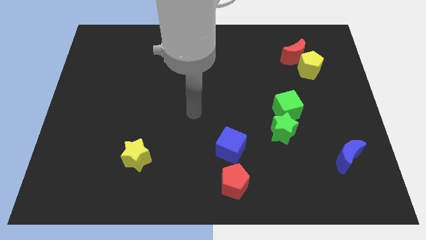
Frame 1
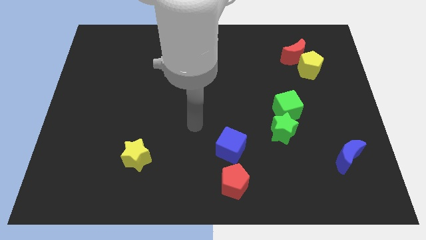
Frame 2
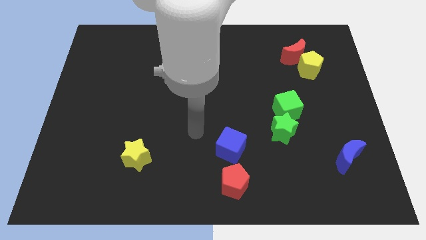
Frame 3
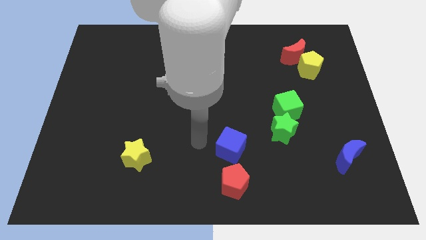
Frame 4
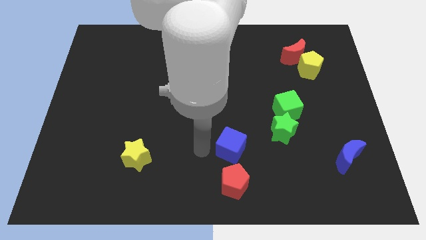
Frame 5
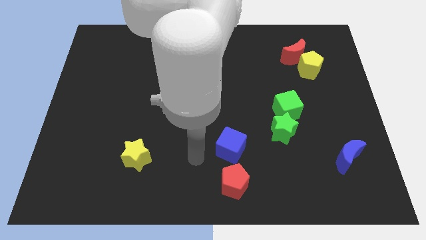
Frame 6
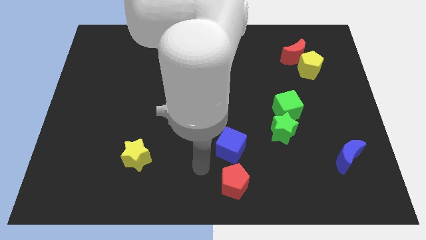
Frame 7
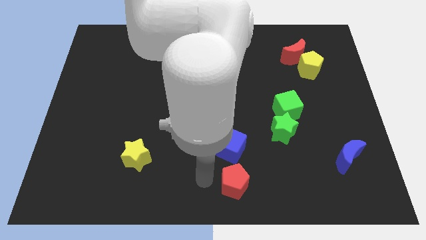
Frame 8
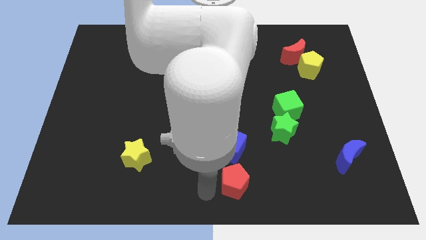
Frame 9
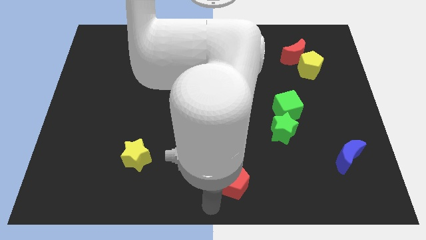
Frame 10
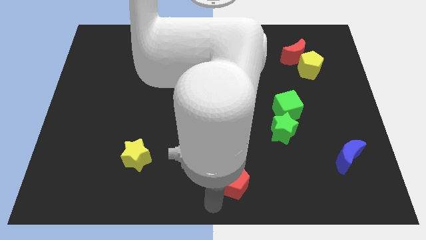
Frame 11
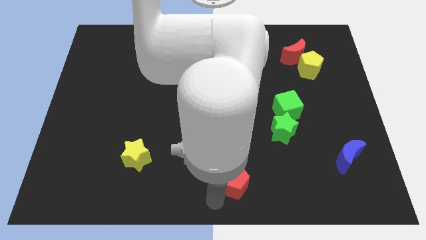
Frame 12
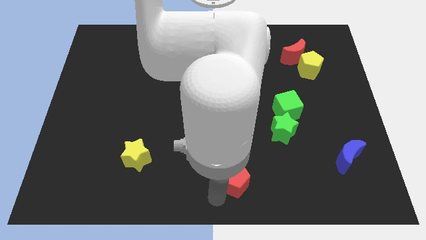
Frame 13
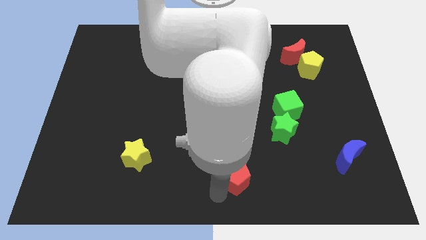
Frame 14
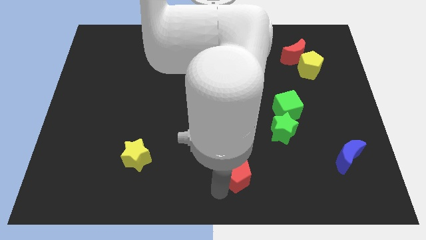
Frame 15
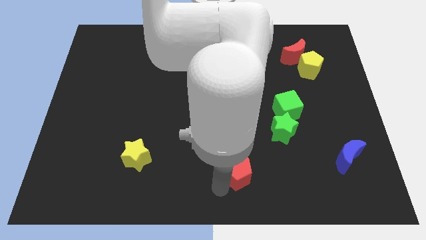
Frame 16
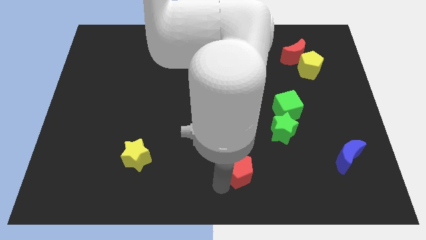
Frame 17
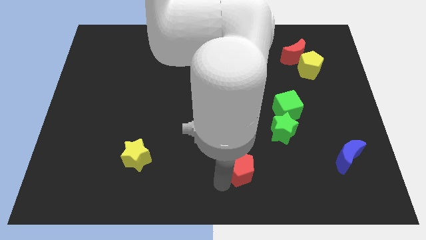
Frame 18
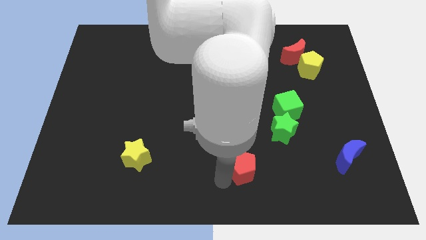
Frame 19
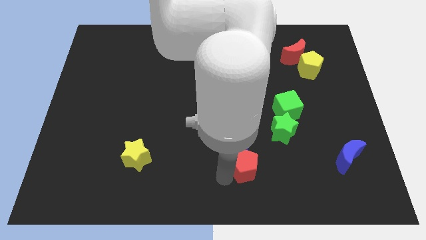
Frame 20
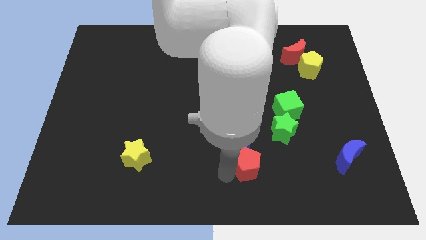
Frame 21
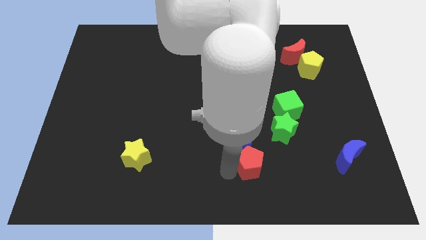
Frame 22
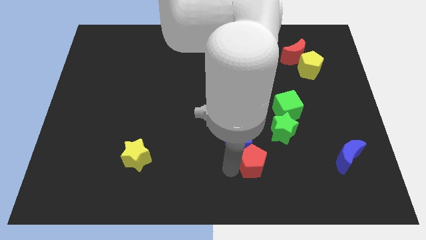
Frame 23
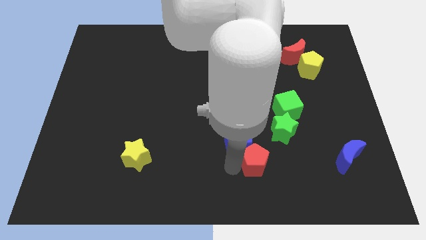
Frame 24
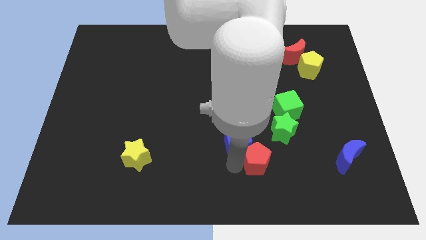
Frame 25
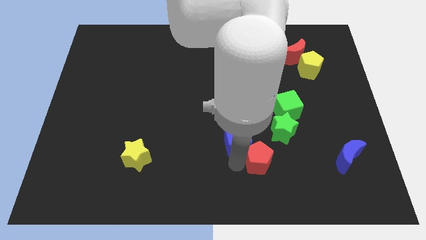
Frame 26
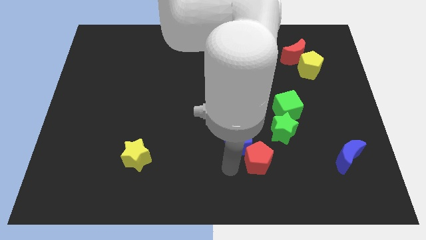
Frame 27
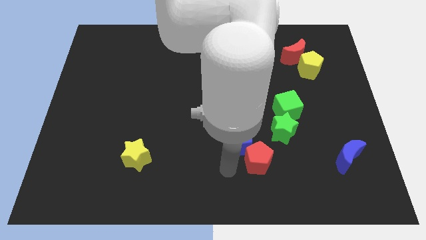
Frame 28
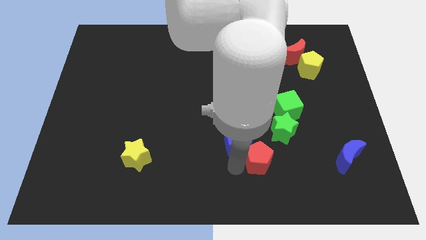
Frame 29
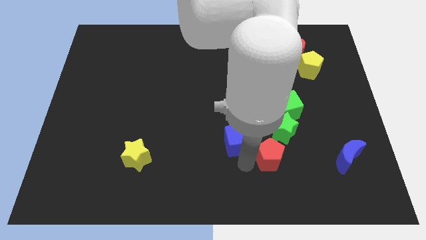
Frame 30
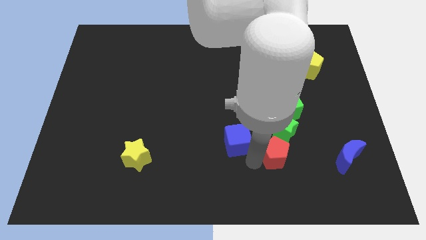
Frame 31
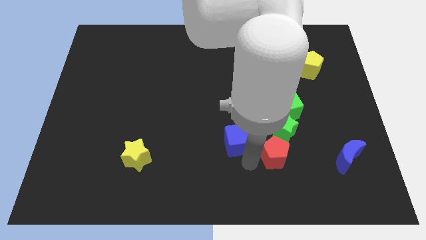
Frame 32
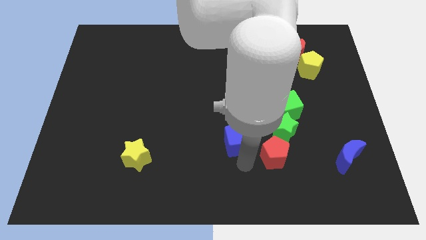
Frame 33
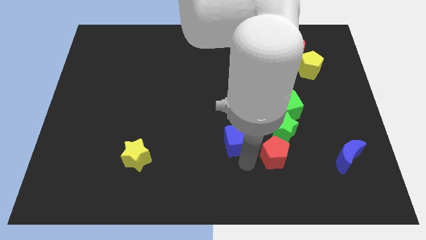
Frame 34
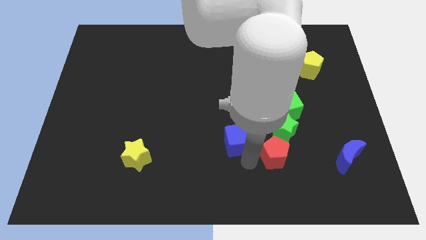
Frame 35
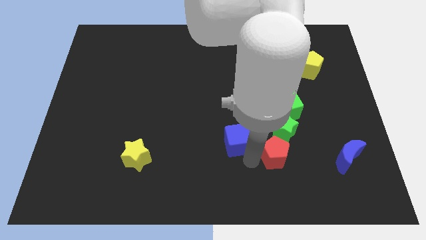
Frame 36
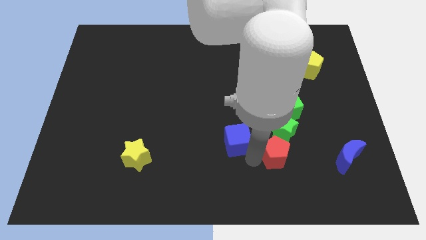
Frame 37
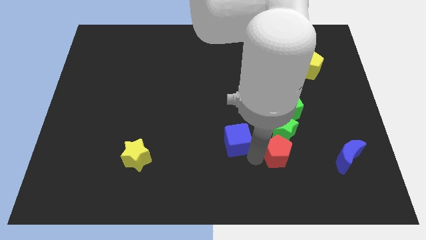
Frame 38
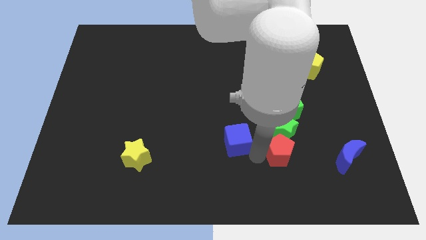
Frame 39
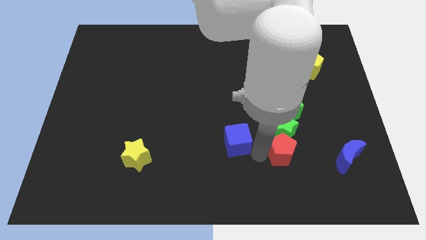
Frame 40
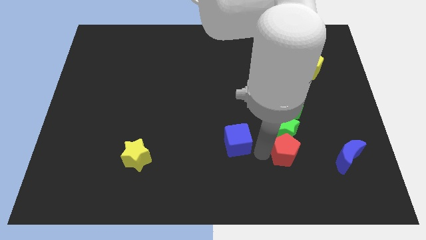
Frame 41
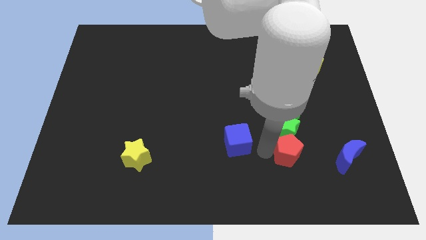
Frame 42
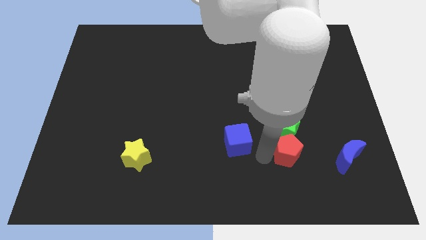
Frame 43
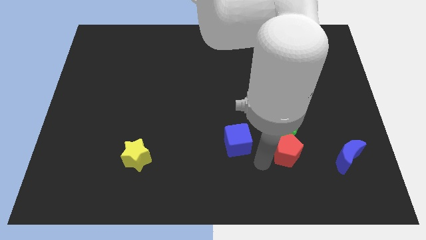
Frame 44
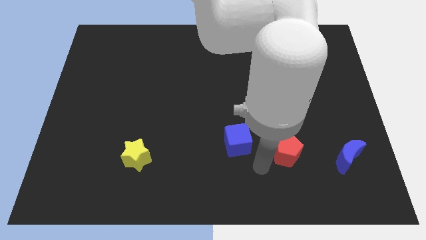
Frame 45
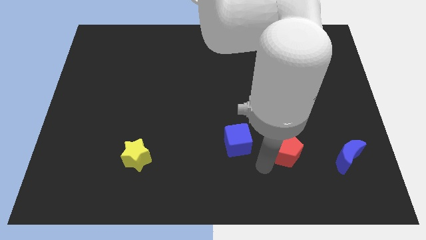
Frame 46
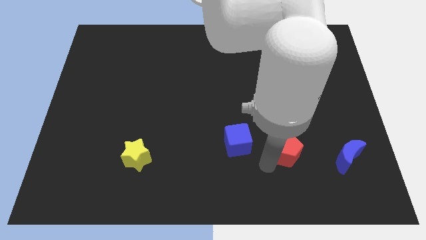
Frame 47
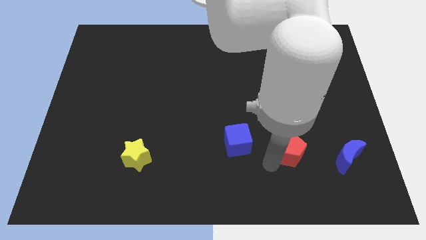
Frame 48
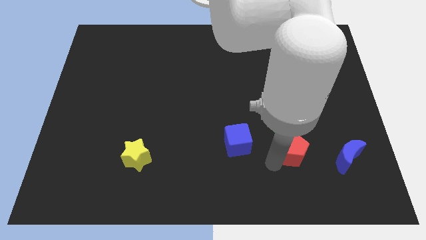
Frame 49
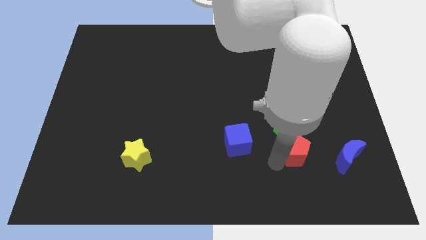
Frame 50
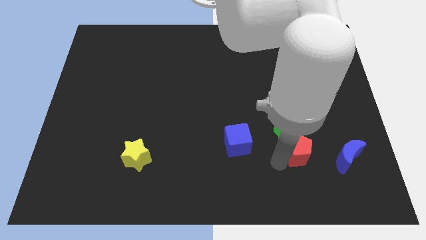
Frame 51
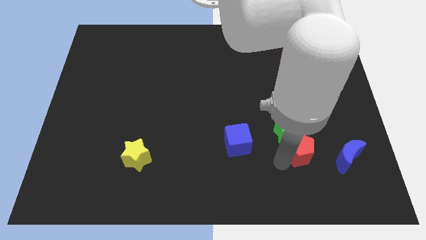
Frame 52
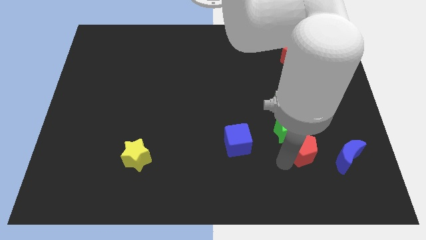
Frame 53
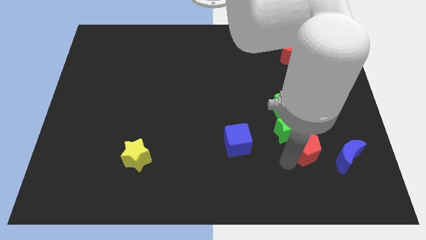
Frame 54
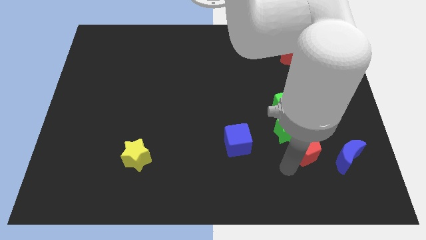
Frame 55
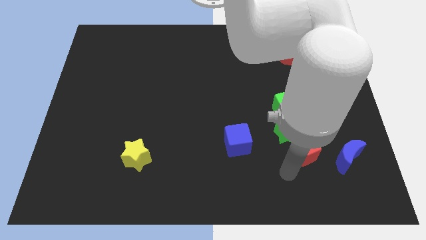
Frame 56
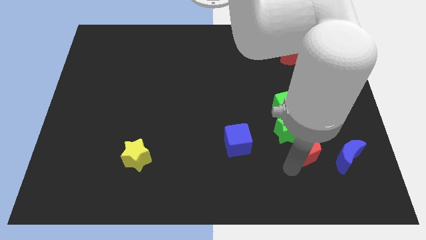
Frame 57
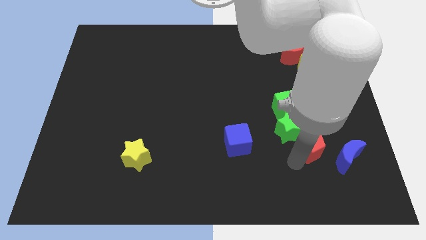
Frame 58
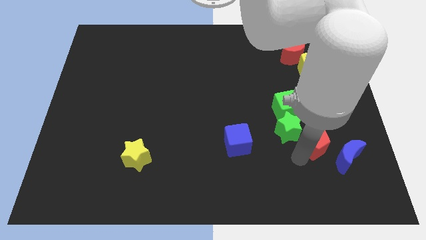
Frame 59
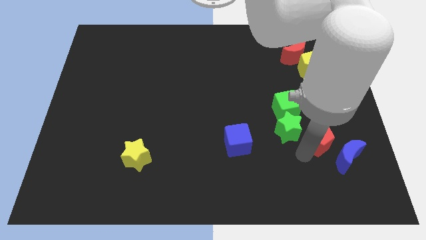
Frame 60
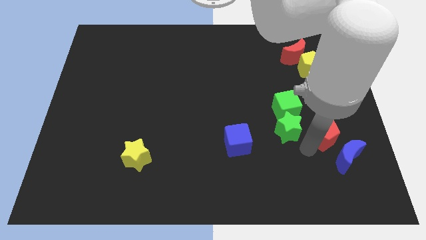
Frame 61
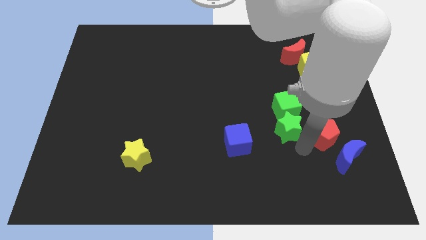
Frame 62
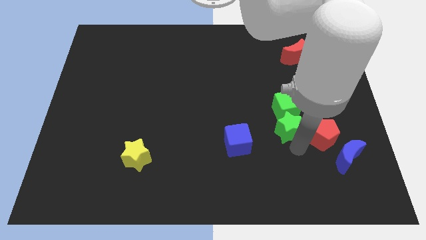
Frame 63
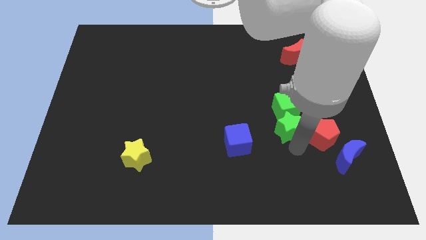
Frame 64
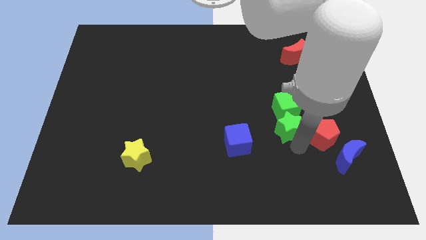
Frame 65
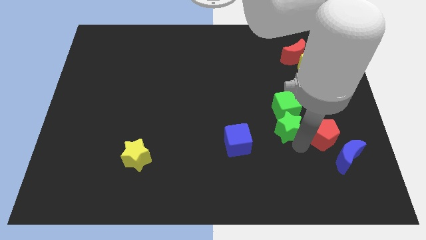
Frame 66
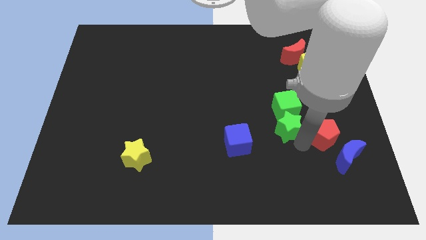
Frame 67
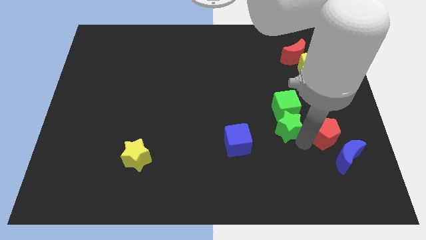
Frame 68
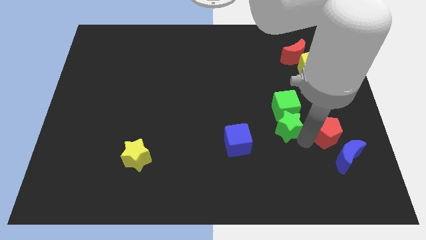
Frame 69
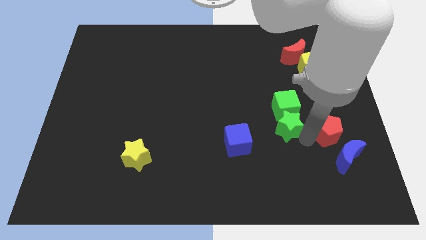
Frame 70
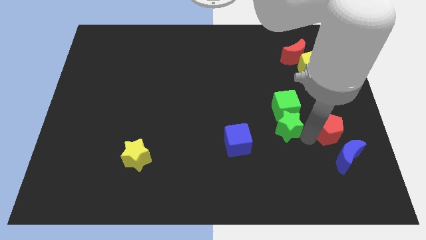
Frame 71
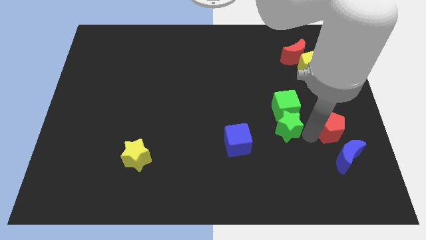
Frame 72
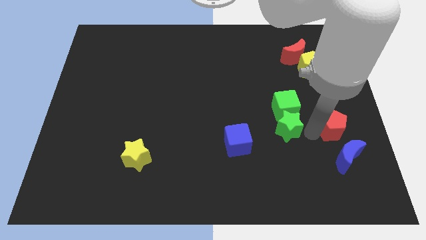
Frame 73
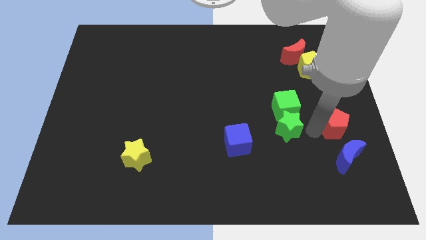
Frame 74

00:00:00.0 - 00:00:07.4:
put the red pentagon to the center right
